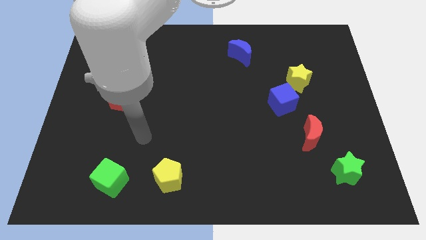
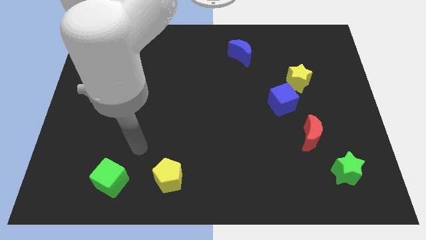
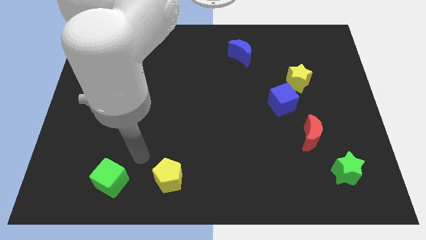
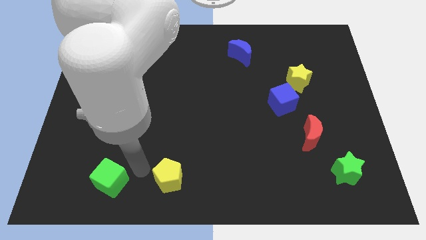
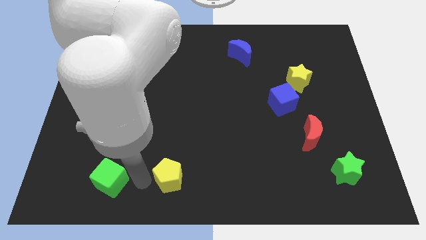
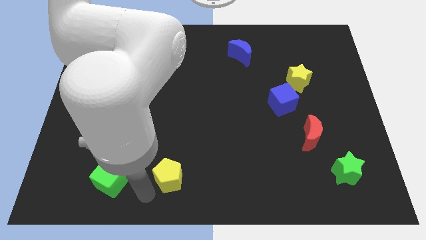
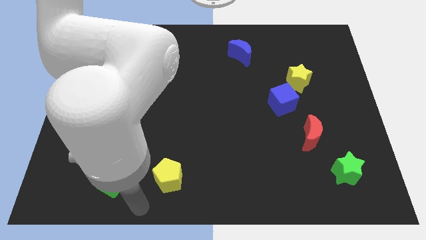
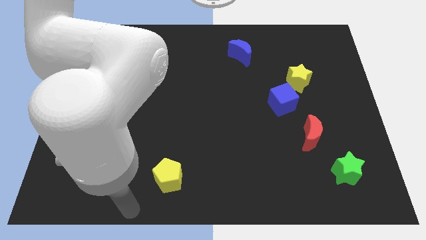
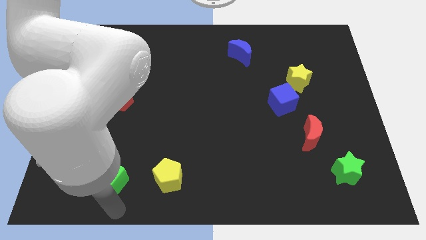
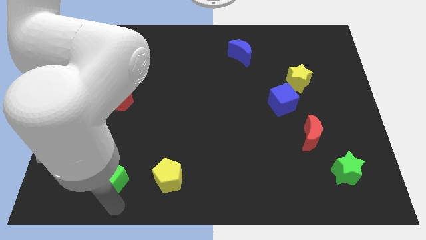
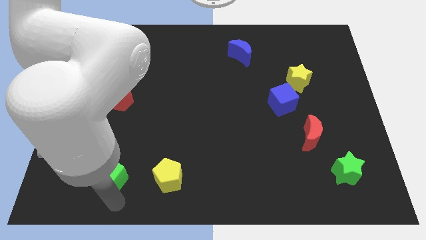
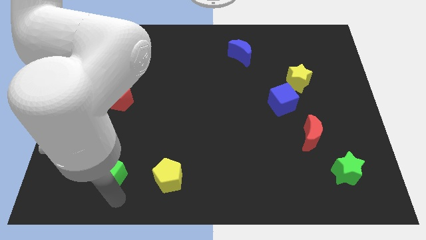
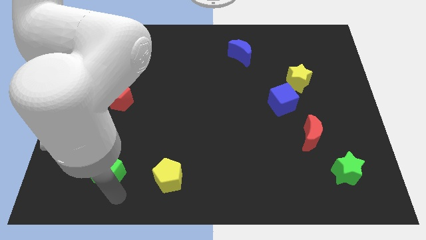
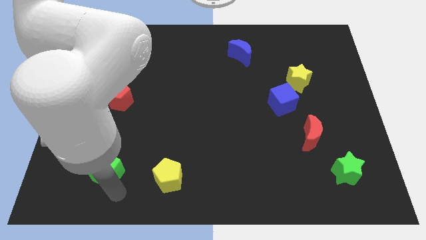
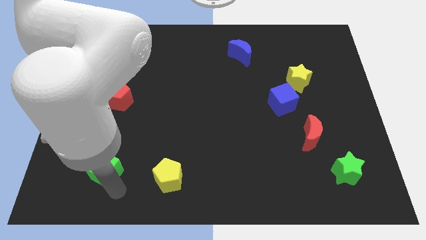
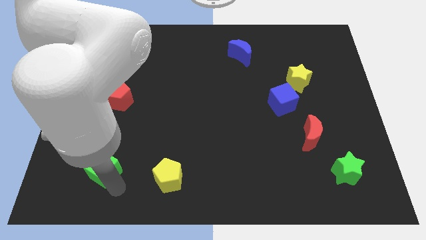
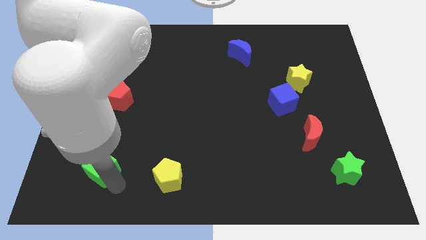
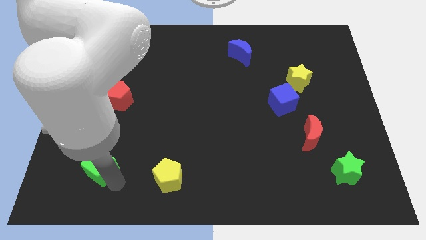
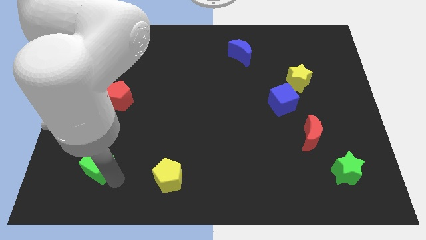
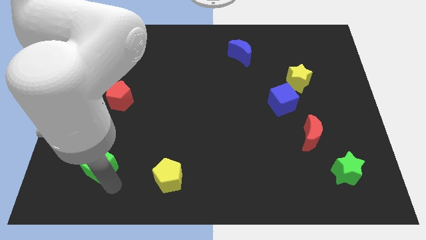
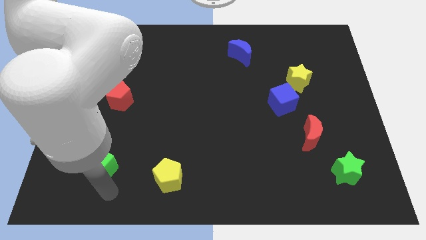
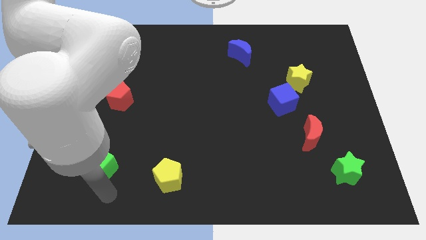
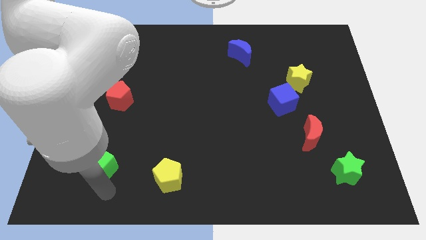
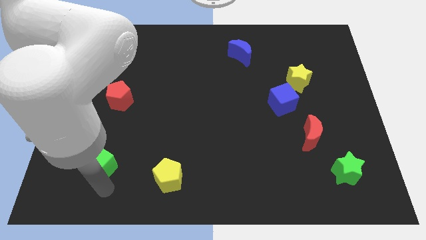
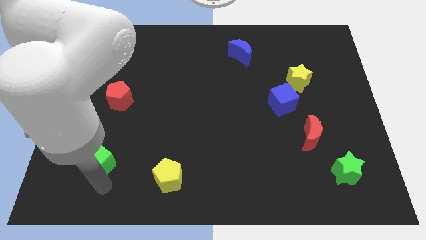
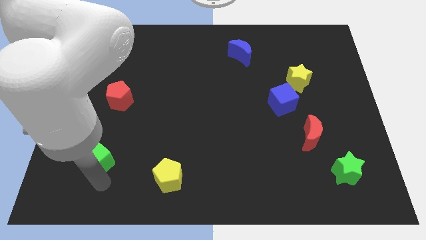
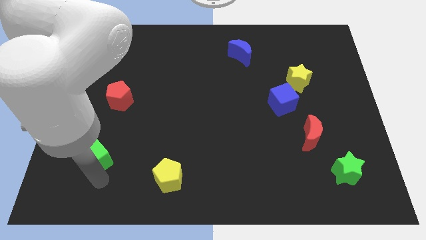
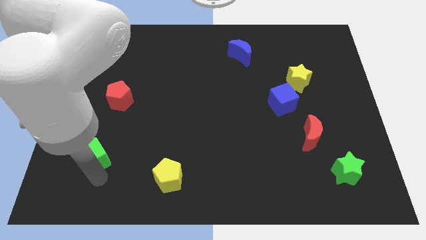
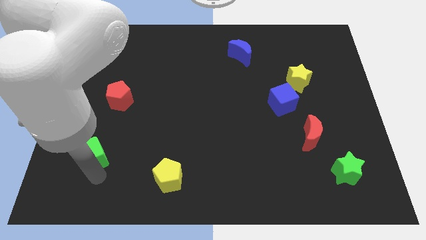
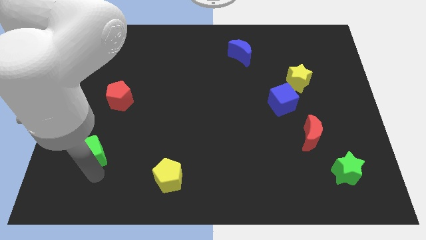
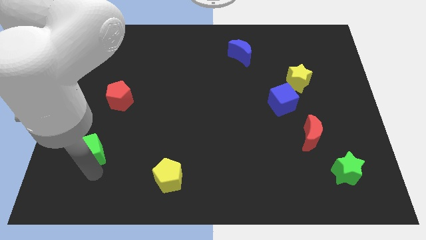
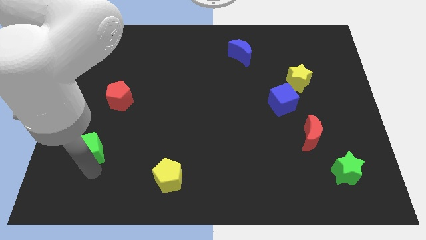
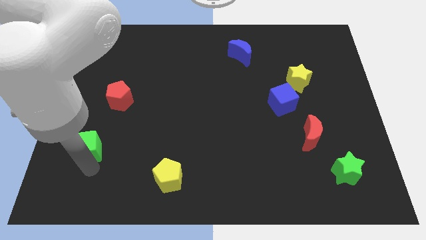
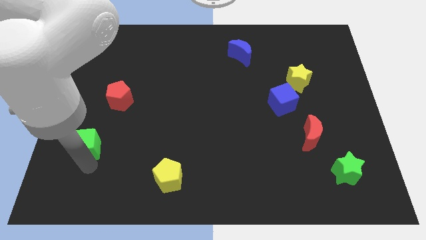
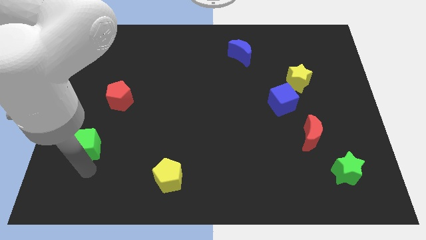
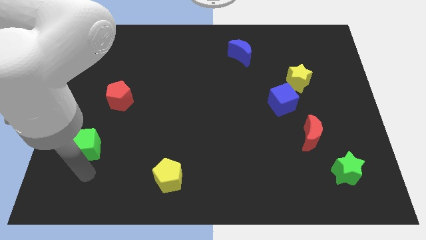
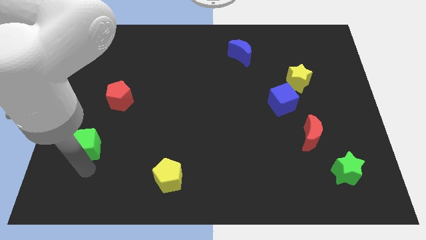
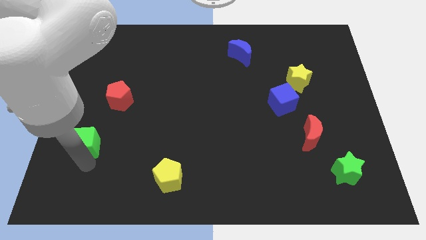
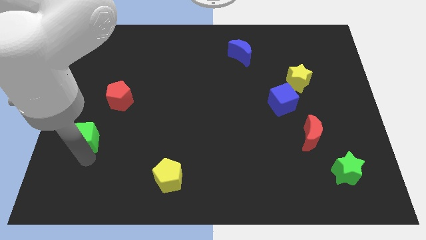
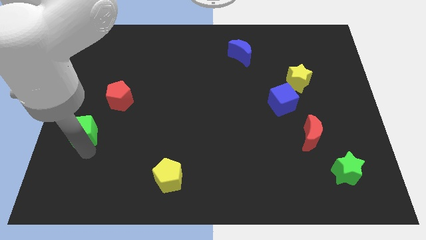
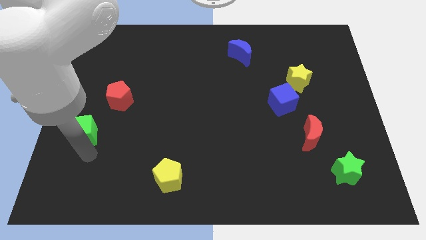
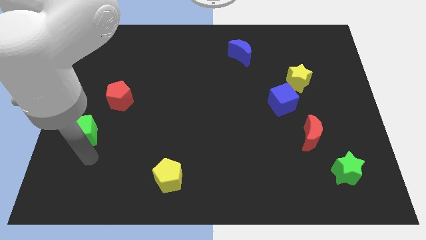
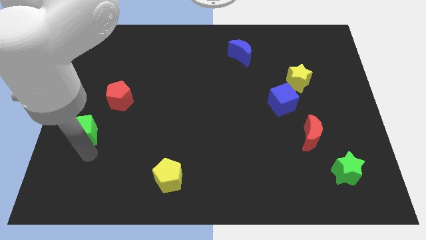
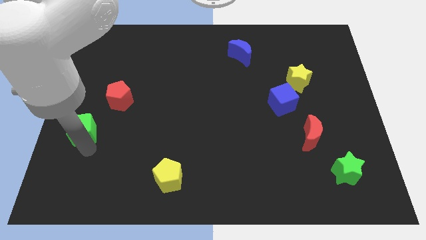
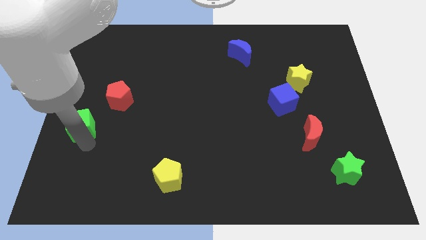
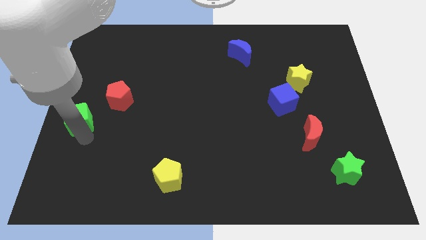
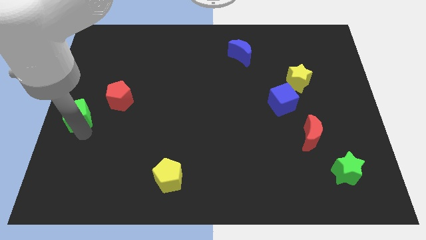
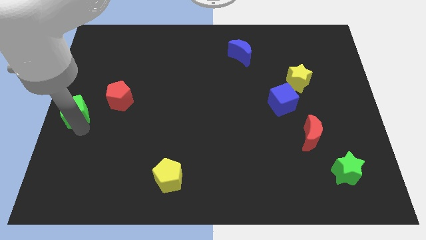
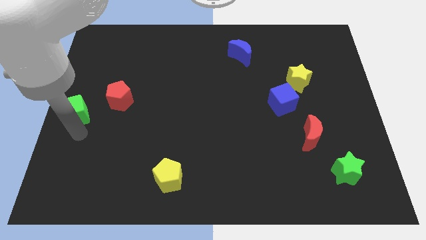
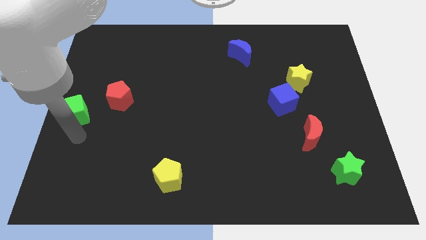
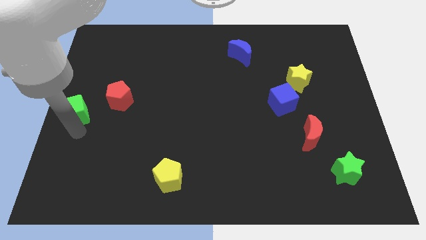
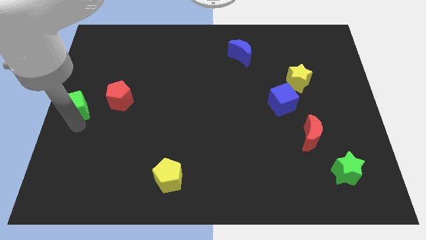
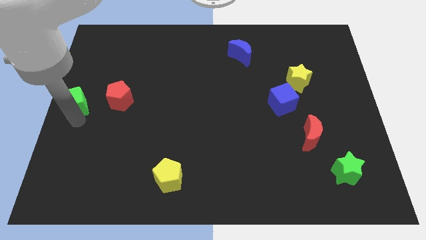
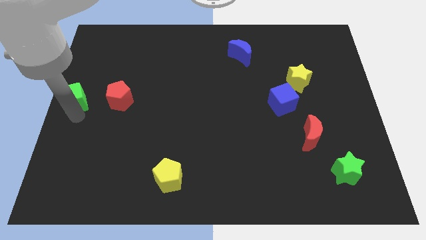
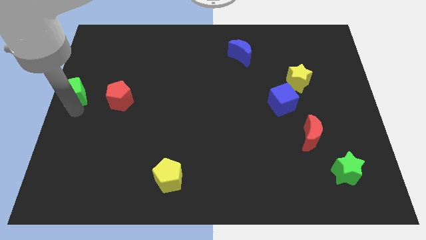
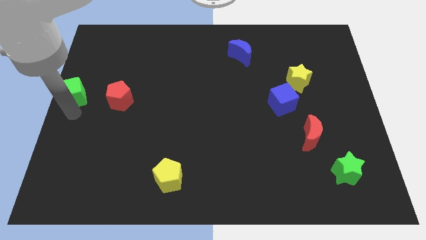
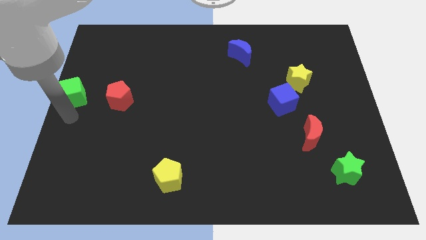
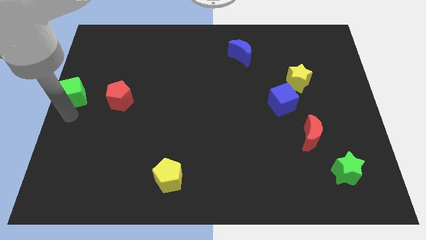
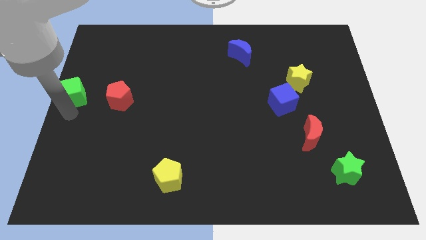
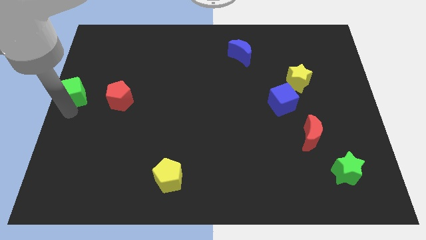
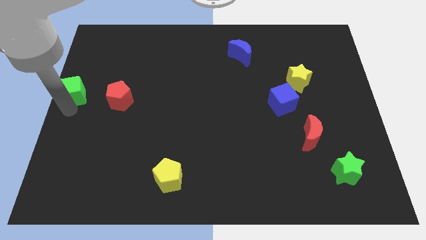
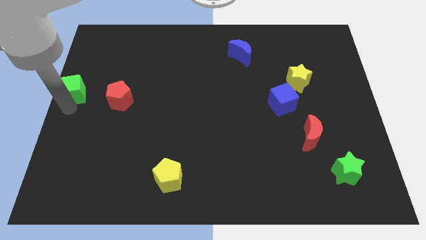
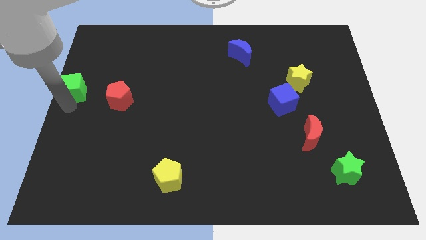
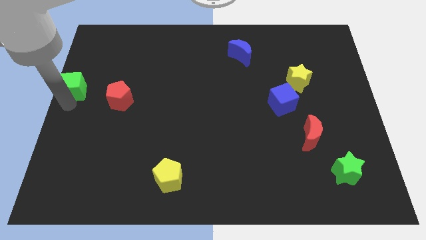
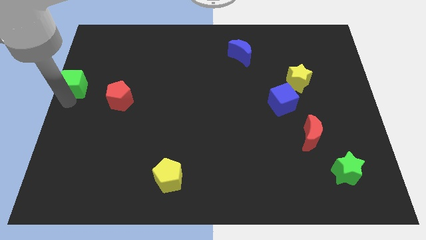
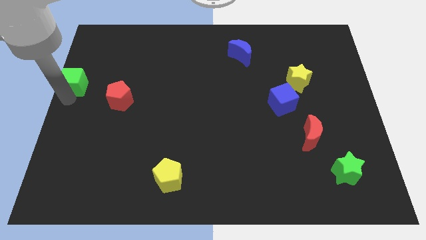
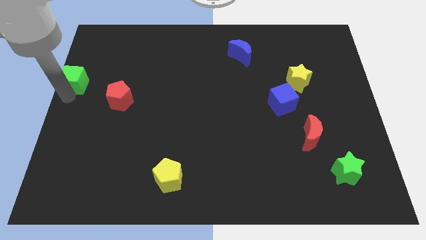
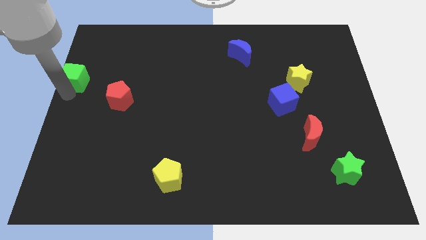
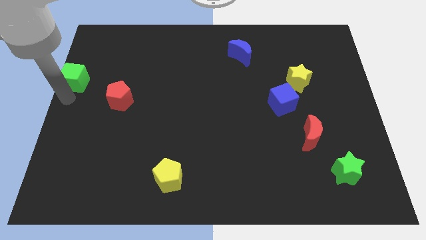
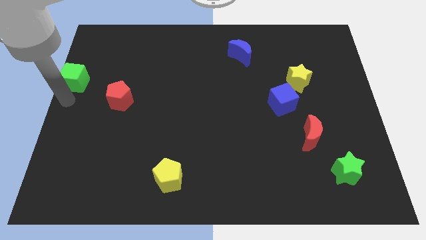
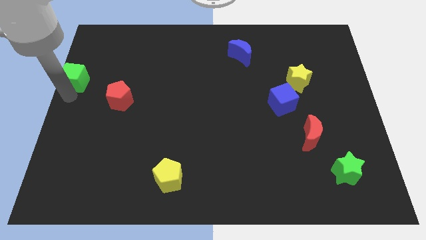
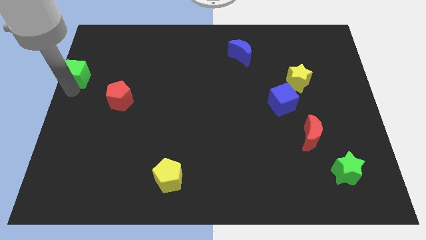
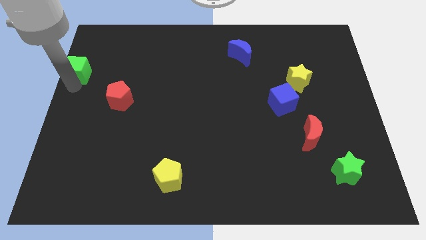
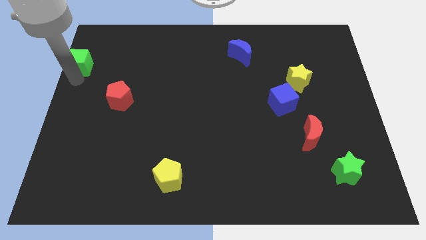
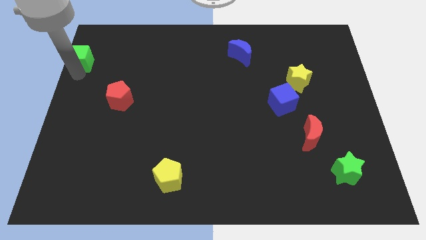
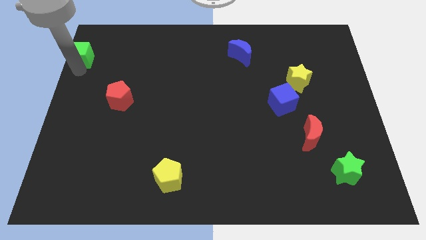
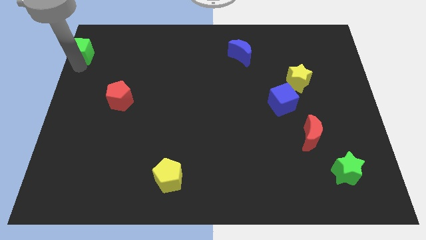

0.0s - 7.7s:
put the green cube to the top left corner
